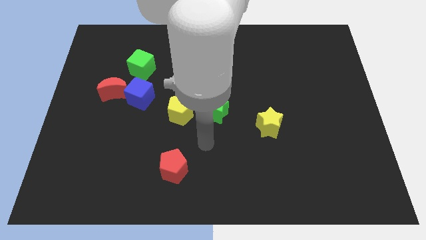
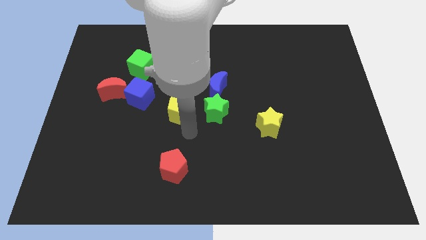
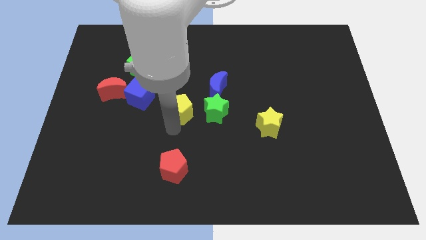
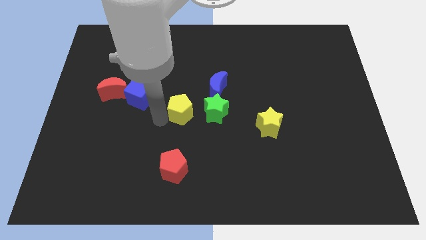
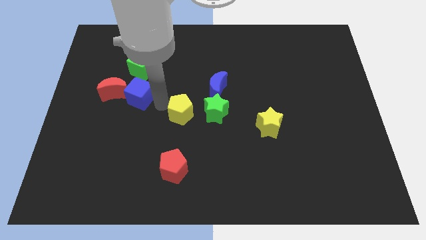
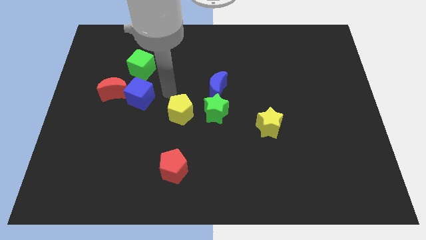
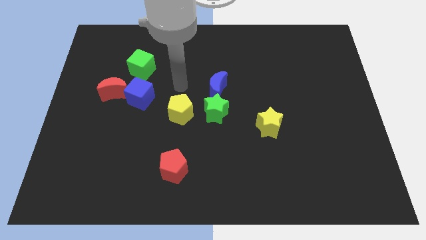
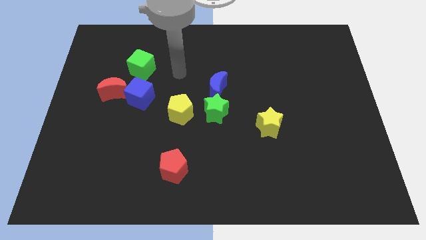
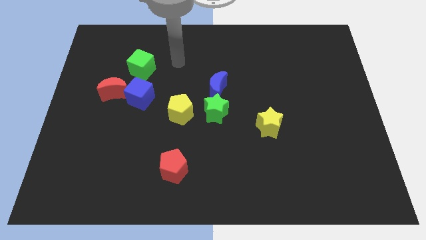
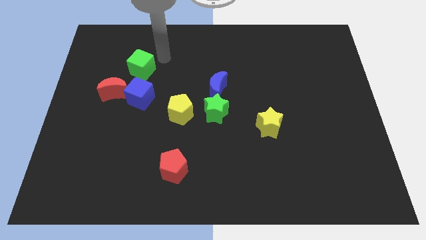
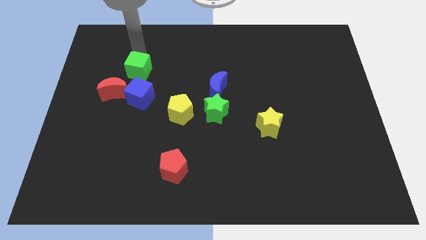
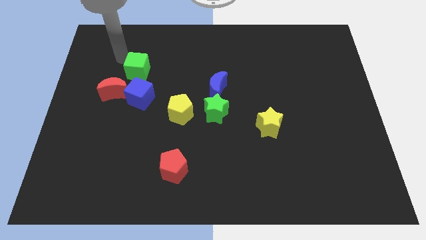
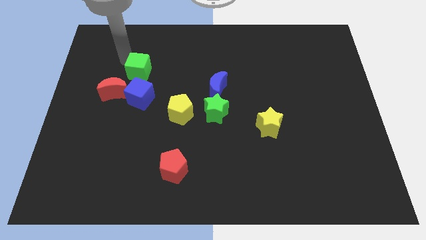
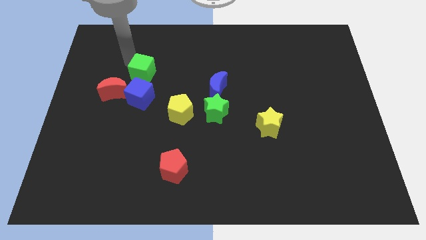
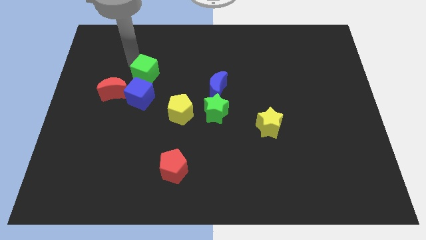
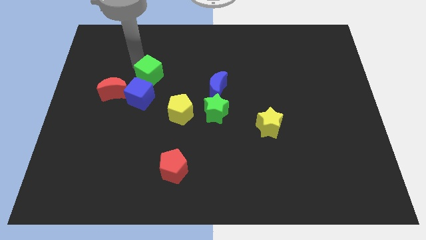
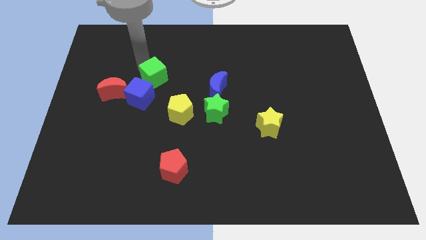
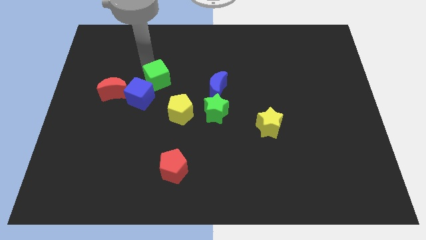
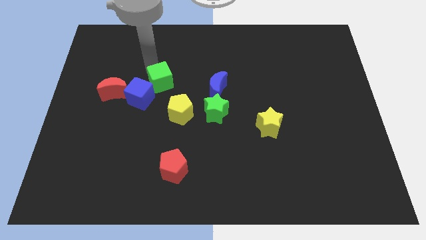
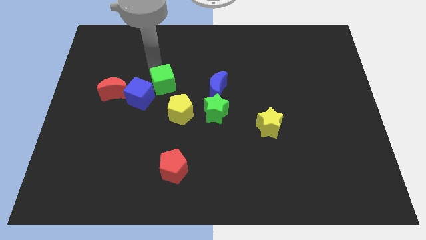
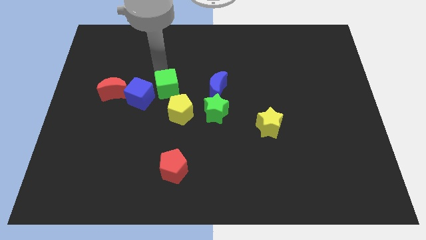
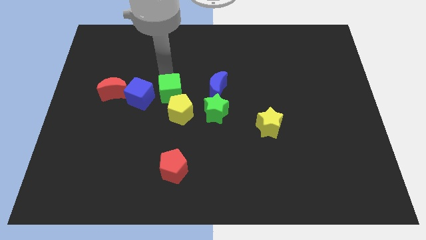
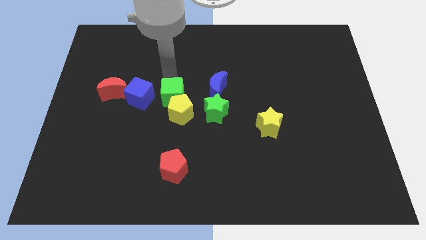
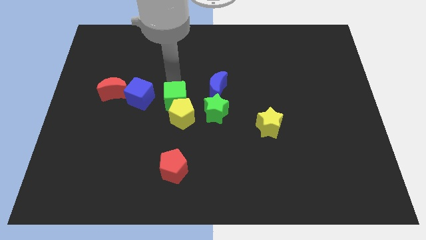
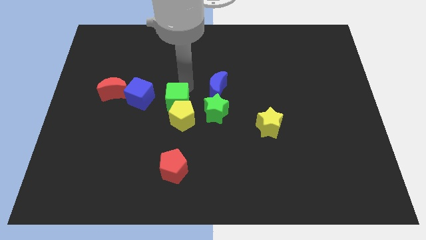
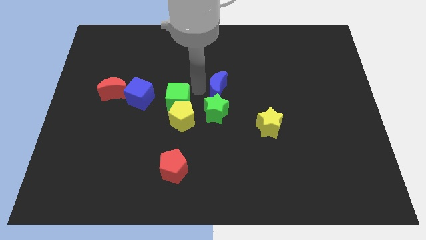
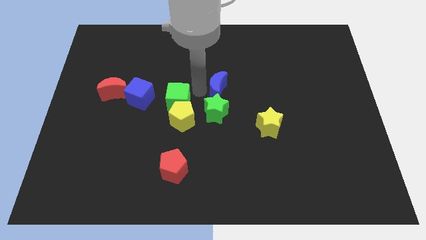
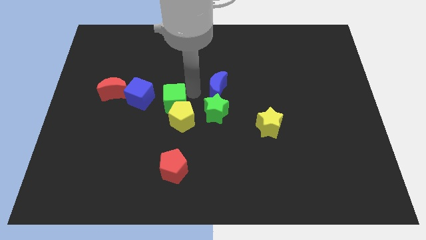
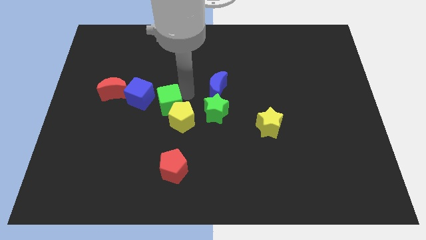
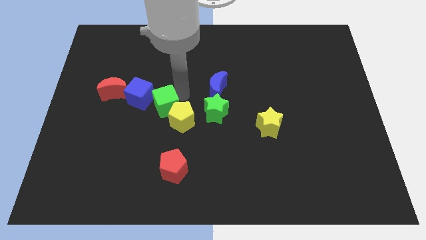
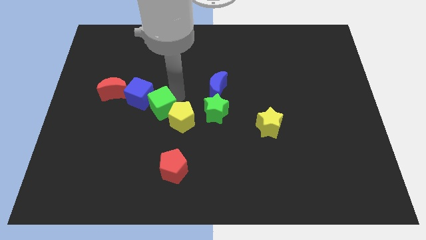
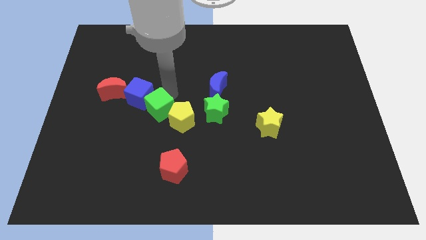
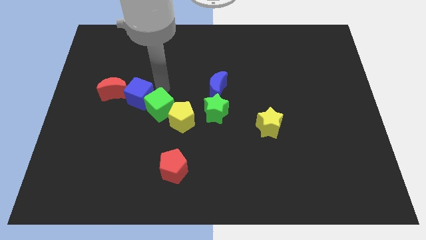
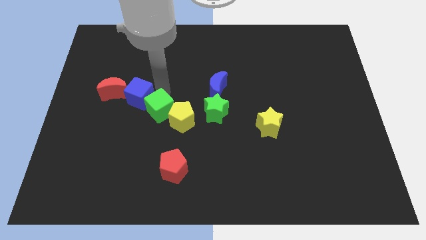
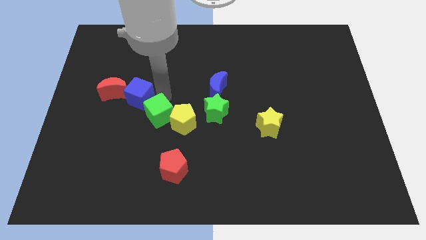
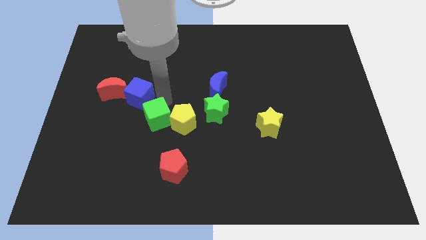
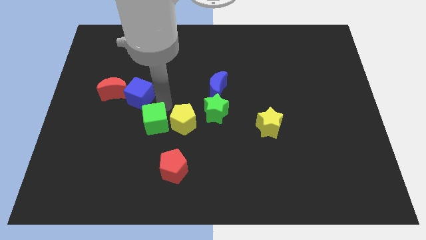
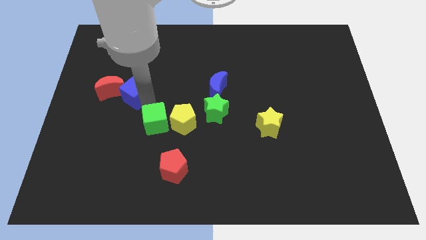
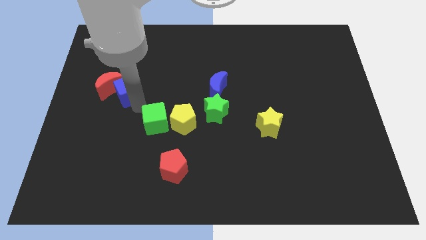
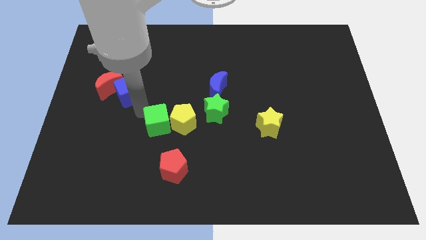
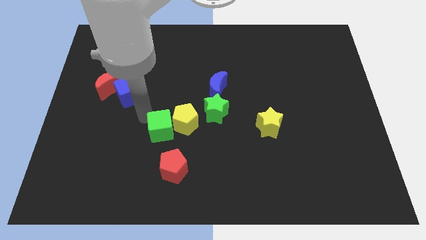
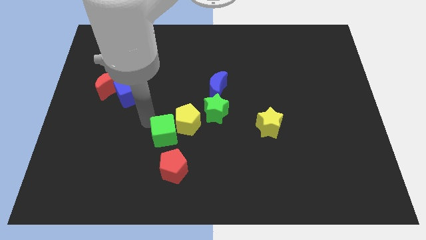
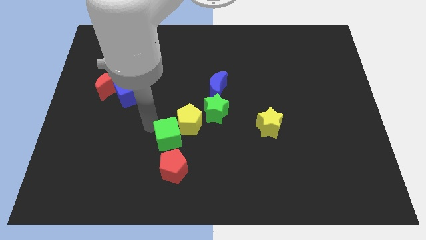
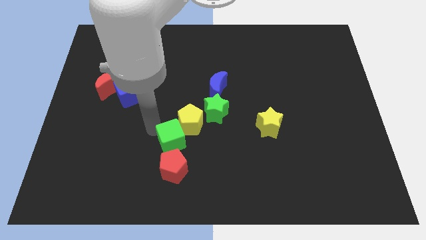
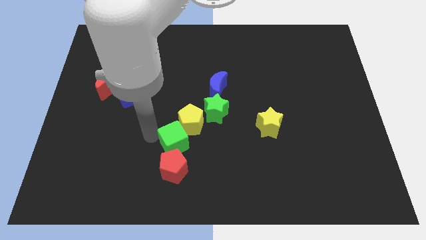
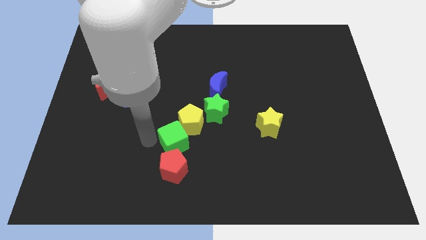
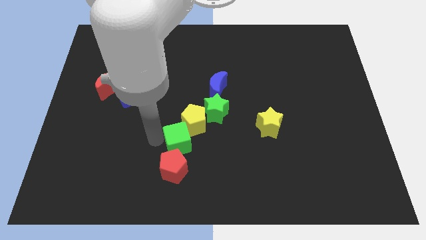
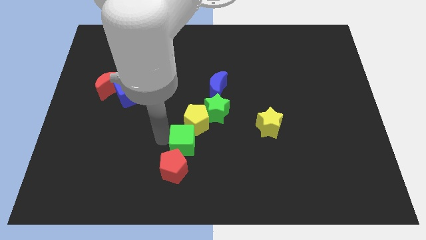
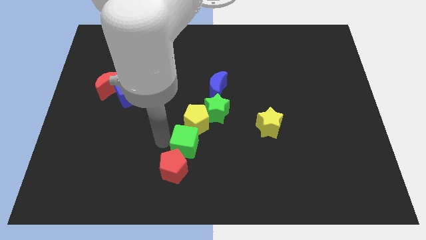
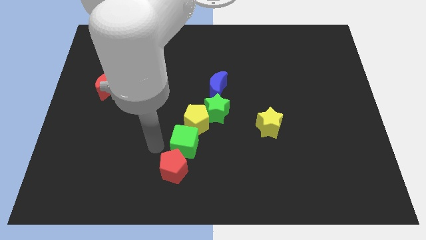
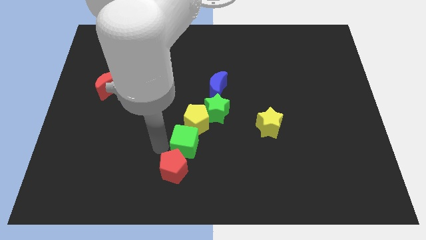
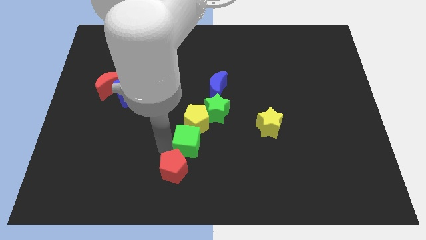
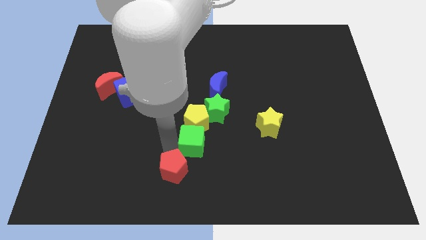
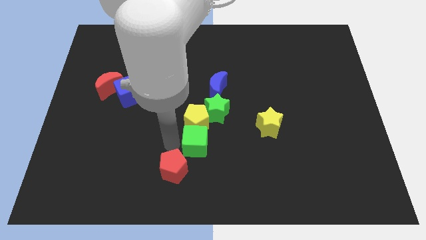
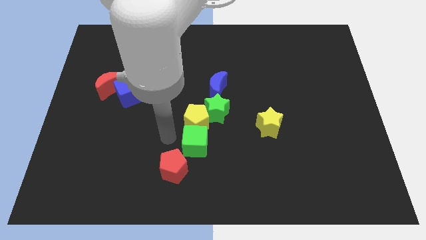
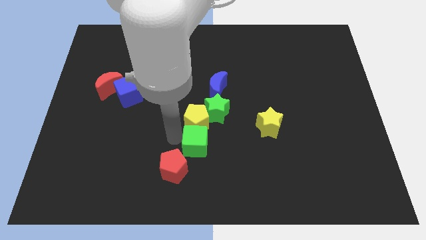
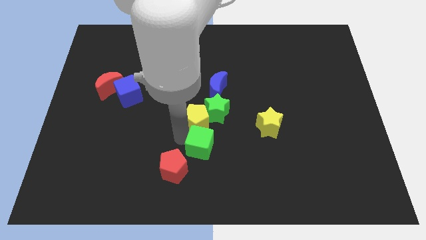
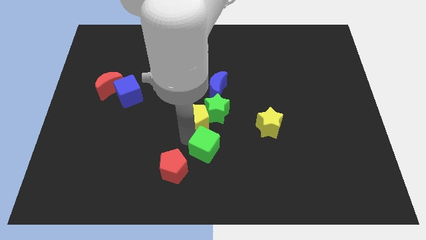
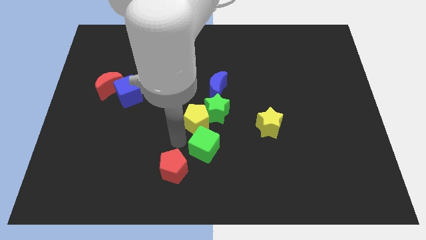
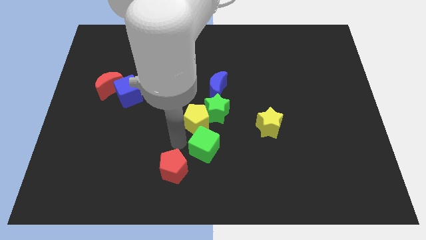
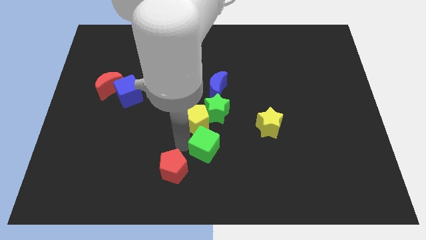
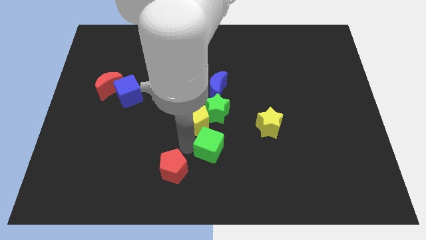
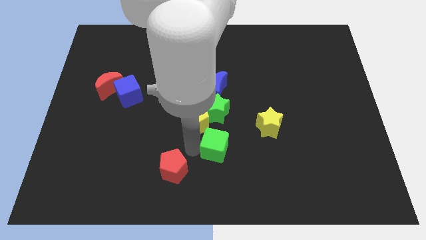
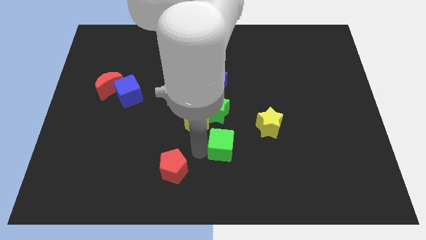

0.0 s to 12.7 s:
move the green cube diagonally down and to the left of the yellow star

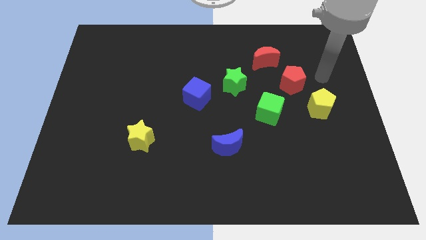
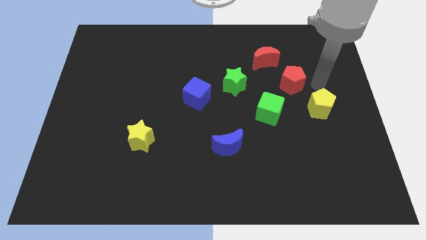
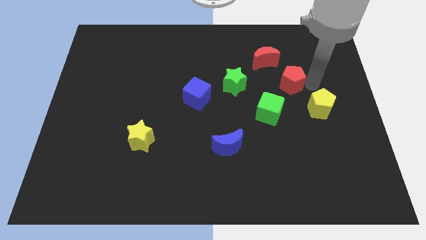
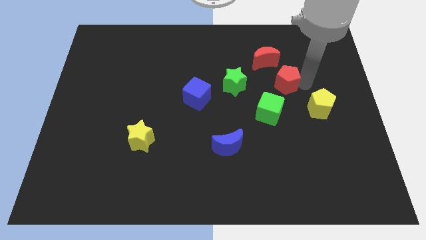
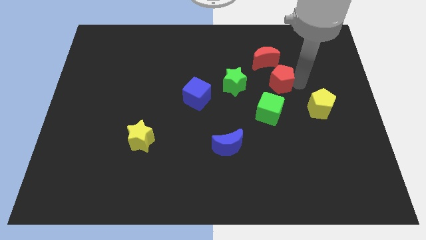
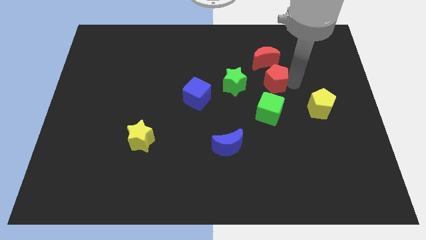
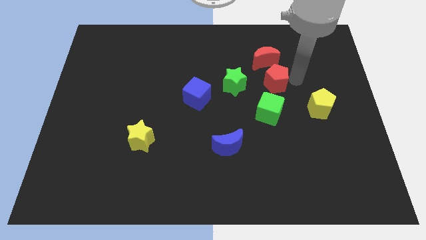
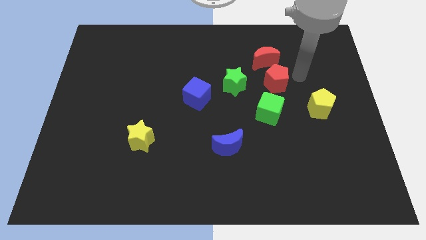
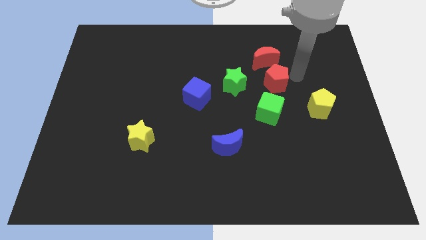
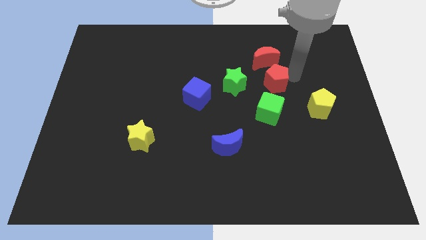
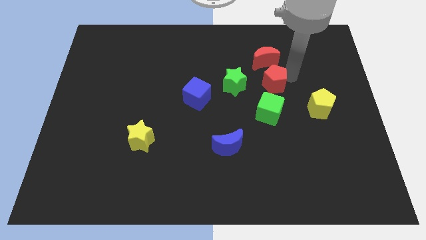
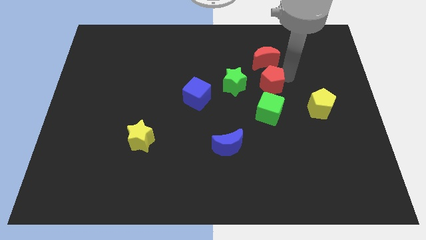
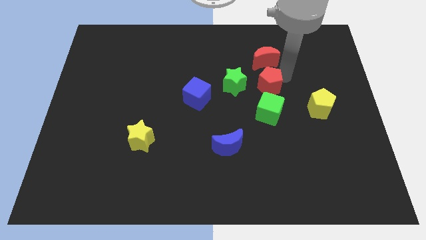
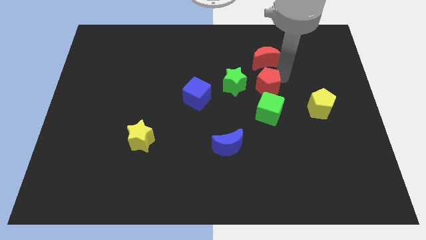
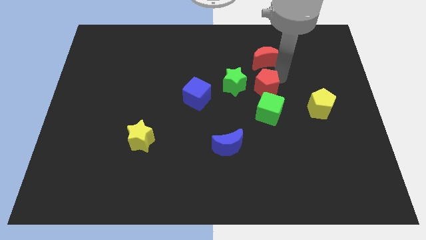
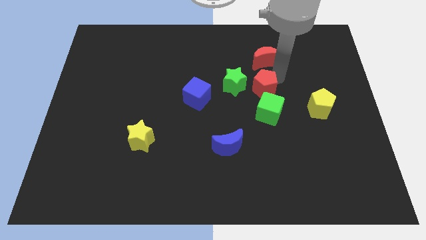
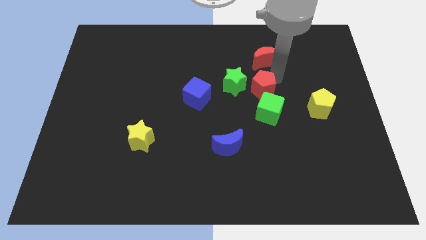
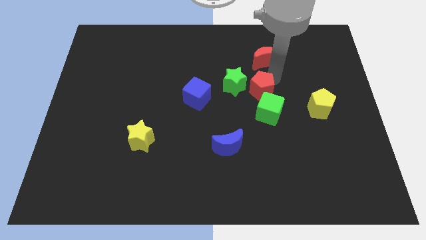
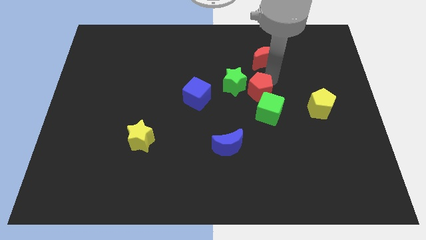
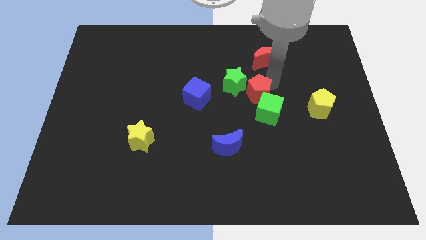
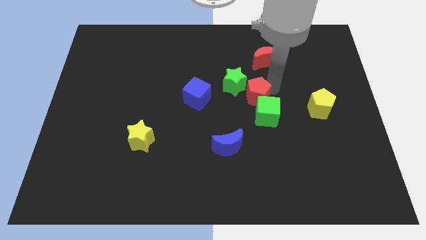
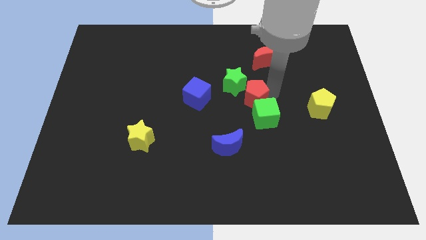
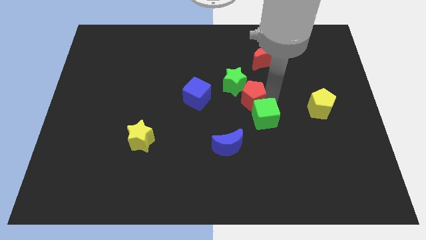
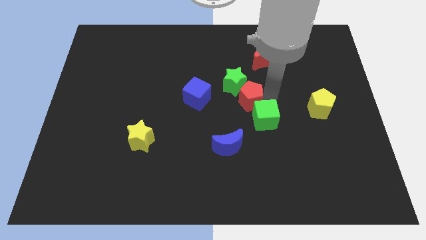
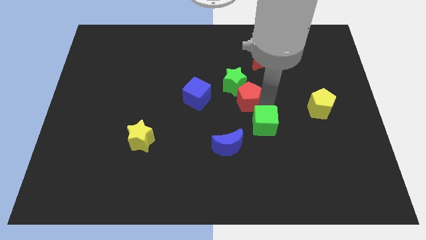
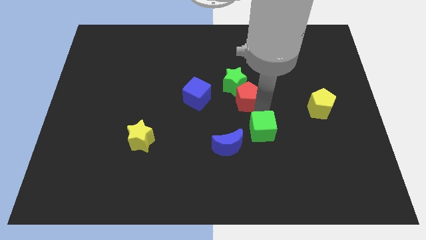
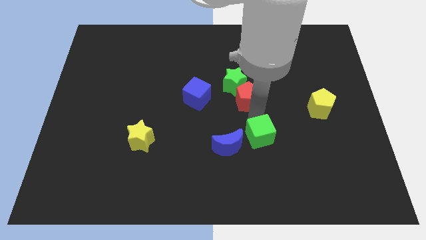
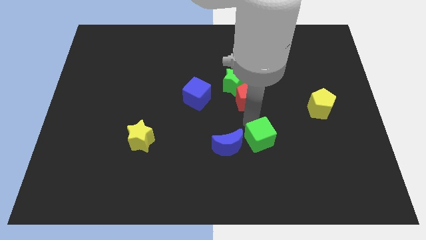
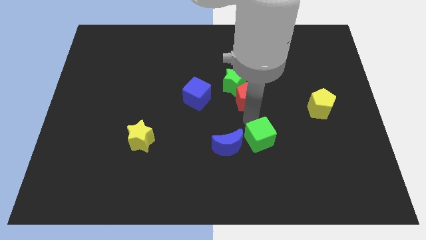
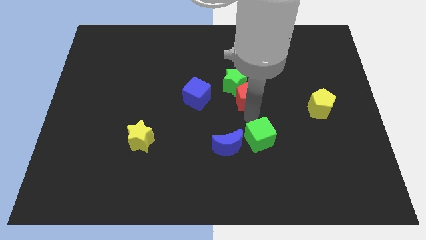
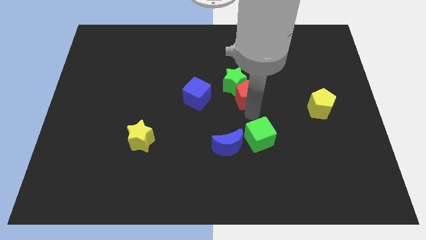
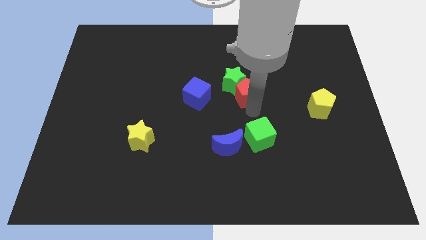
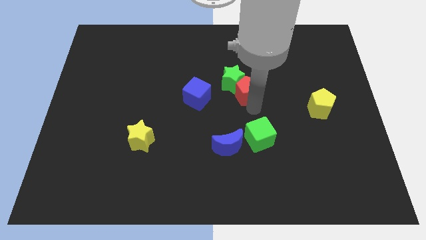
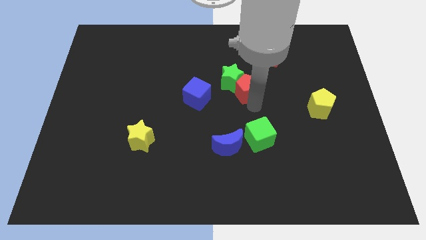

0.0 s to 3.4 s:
put the red pentagon to the bottom left of the red moon
